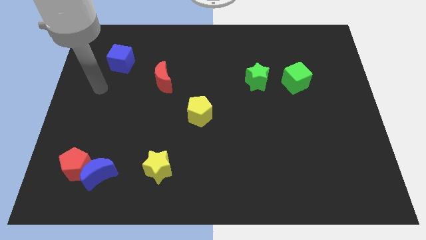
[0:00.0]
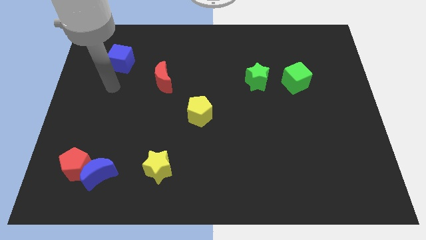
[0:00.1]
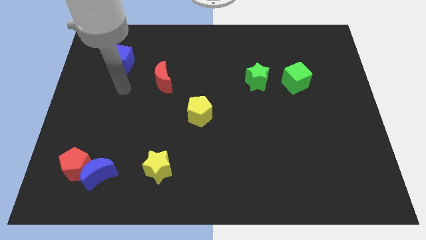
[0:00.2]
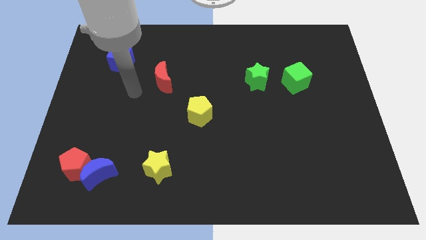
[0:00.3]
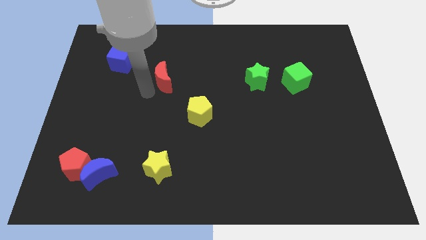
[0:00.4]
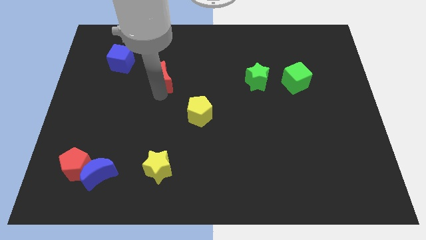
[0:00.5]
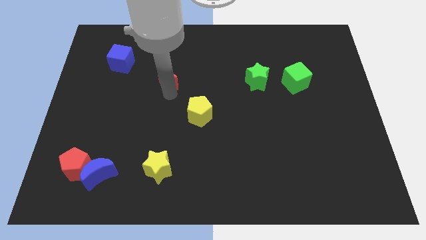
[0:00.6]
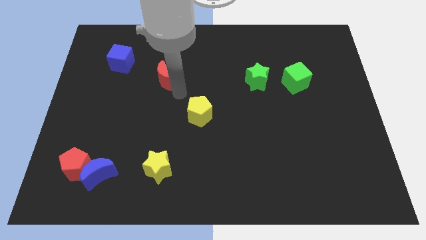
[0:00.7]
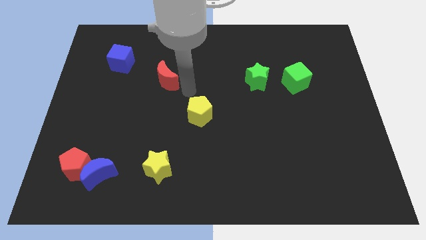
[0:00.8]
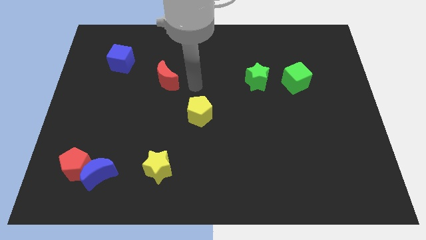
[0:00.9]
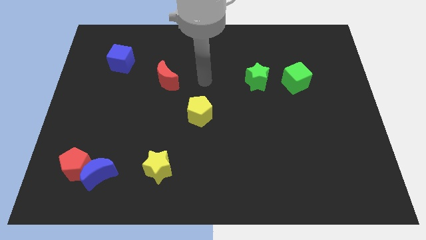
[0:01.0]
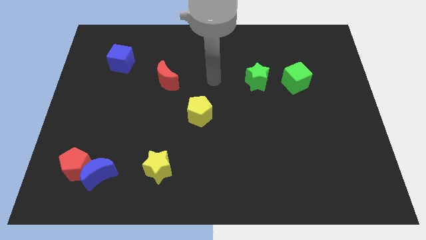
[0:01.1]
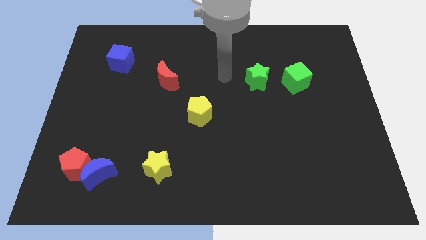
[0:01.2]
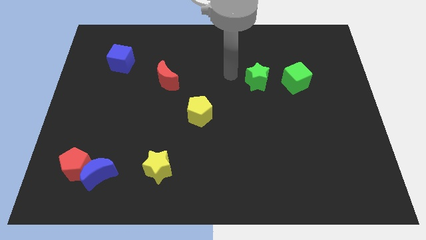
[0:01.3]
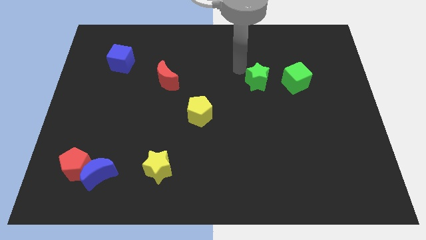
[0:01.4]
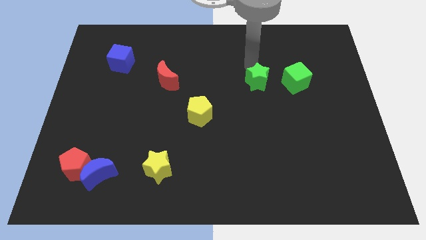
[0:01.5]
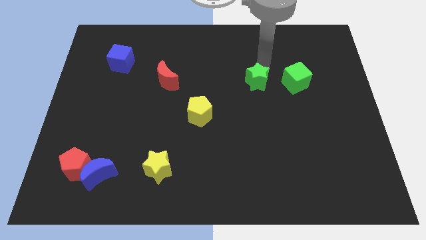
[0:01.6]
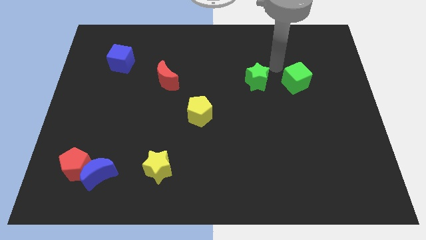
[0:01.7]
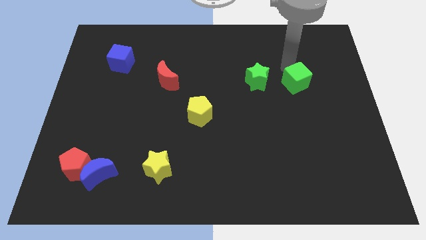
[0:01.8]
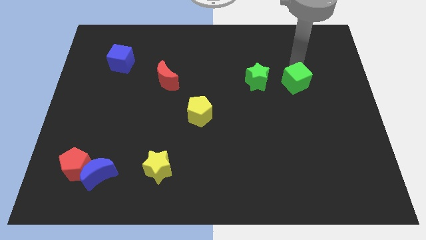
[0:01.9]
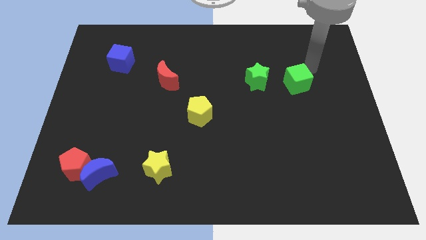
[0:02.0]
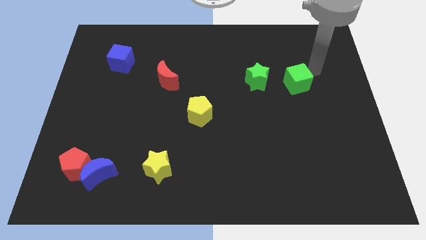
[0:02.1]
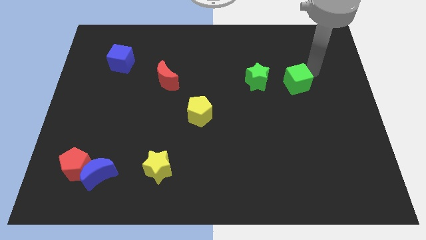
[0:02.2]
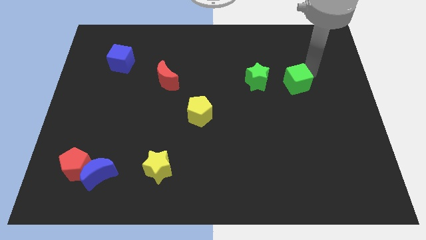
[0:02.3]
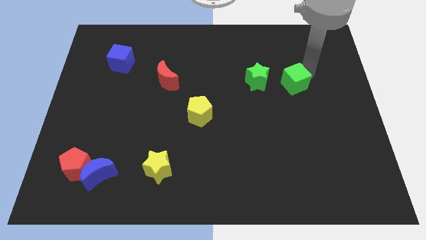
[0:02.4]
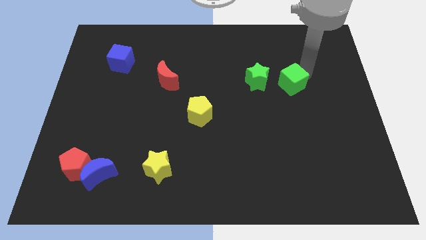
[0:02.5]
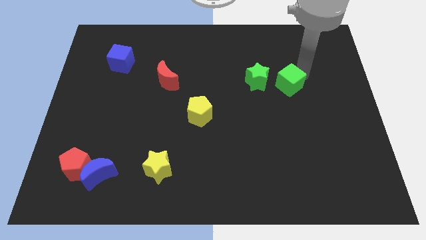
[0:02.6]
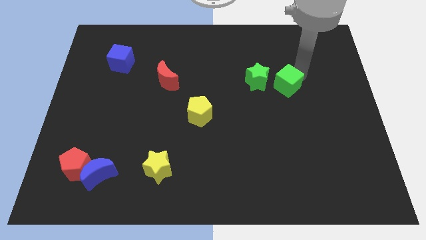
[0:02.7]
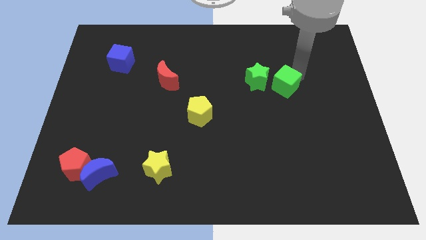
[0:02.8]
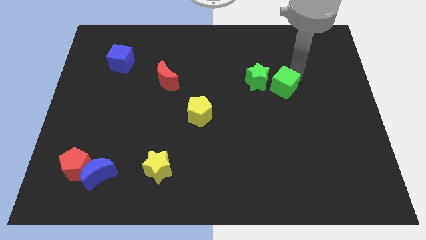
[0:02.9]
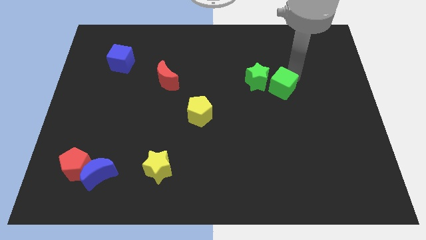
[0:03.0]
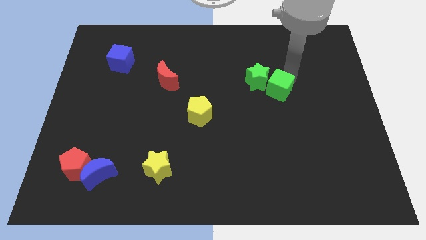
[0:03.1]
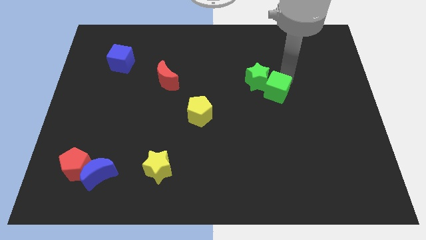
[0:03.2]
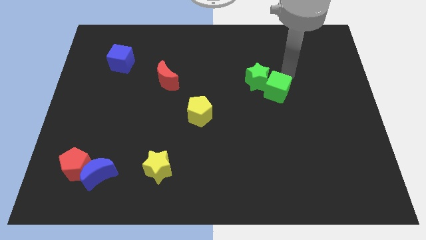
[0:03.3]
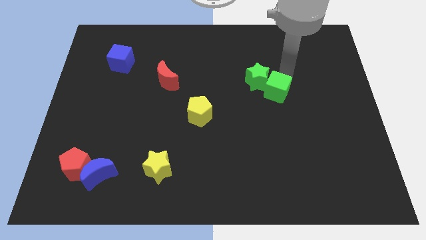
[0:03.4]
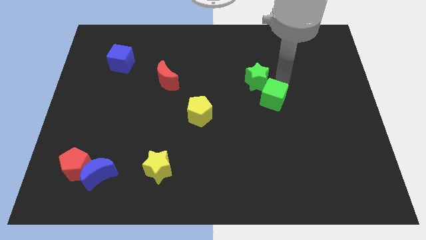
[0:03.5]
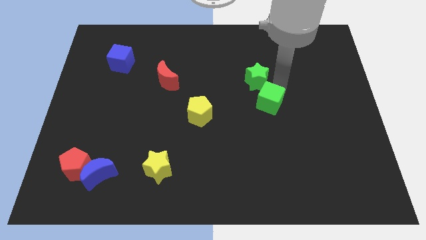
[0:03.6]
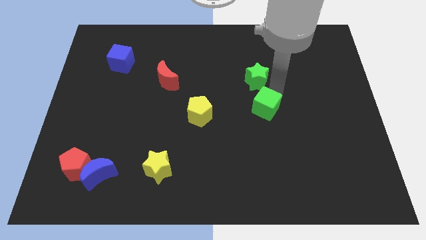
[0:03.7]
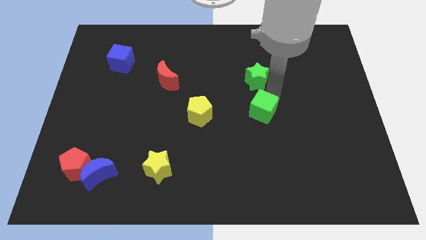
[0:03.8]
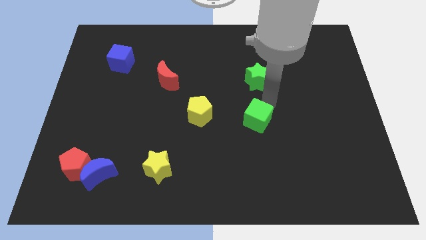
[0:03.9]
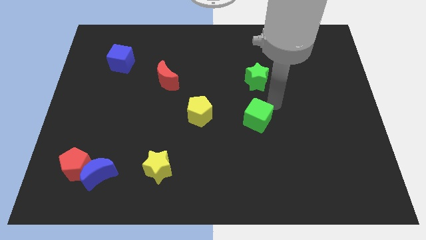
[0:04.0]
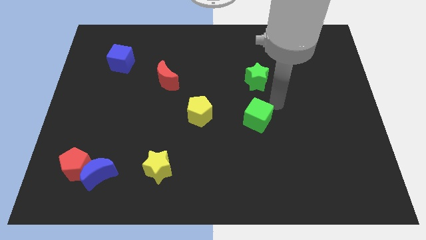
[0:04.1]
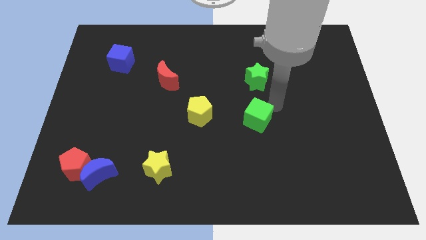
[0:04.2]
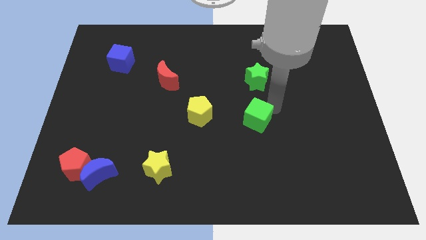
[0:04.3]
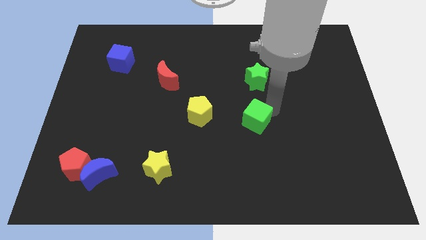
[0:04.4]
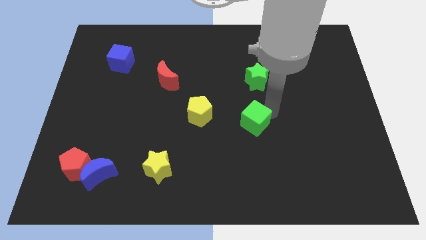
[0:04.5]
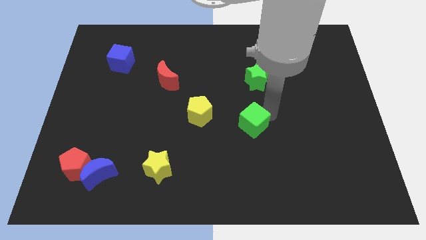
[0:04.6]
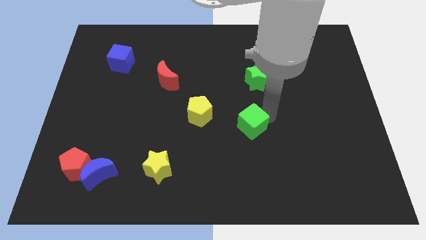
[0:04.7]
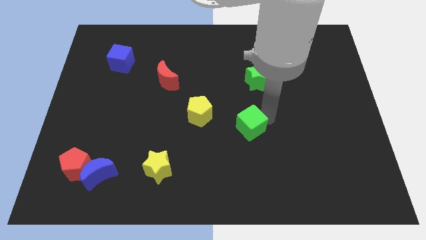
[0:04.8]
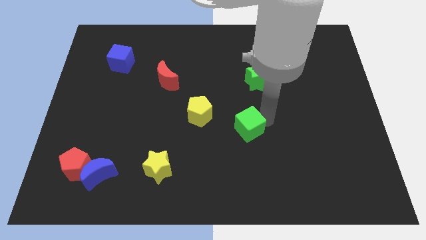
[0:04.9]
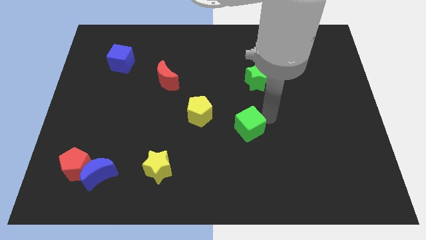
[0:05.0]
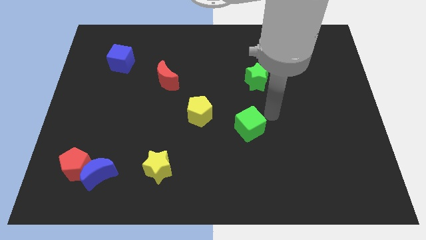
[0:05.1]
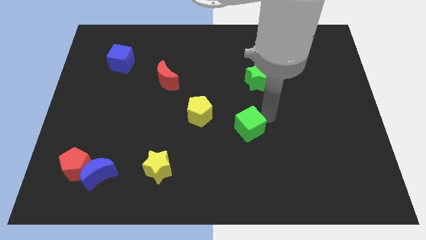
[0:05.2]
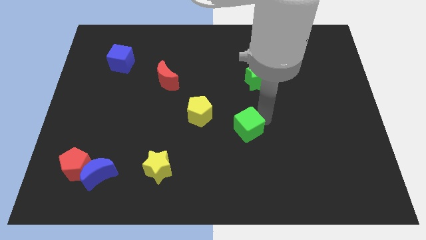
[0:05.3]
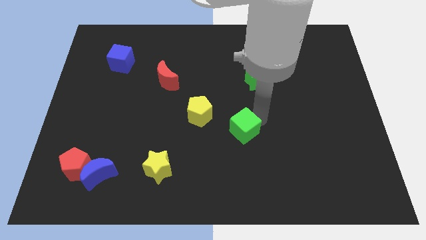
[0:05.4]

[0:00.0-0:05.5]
slide the green cube downwards and left

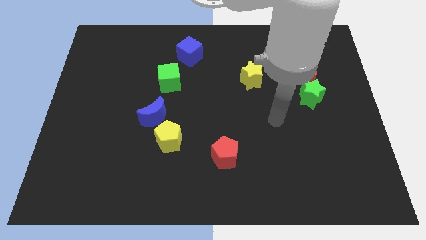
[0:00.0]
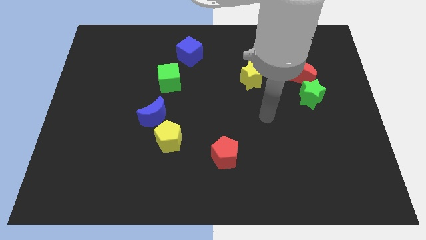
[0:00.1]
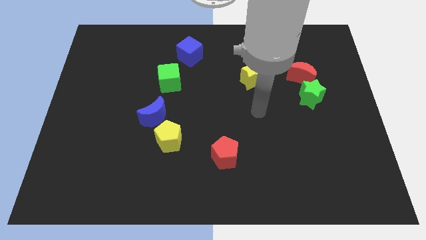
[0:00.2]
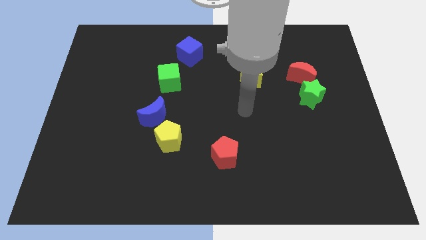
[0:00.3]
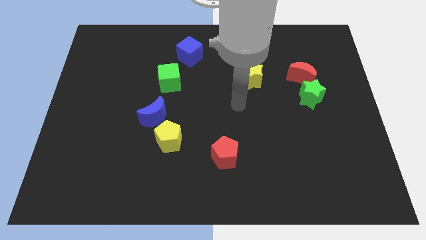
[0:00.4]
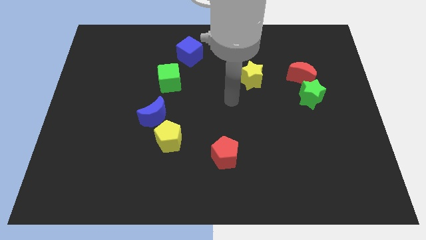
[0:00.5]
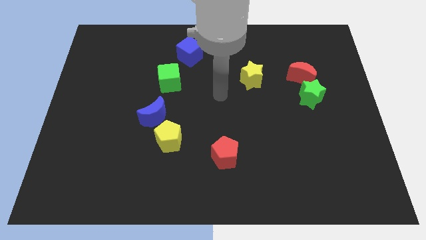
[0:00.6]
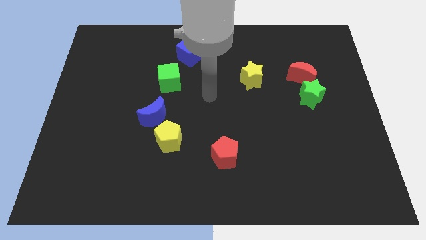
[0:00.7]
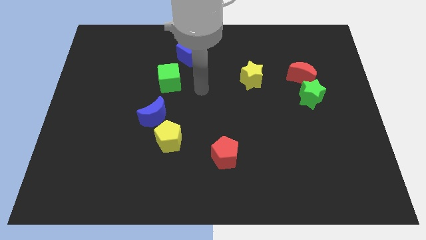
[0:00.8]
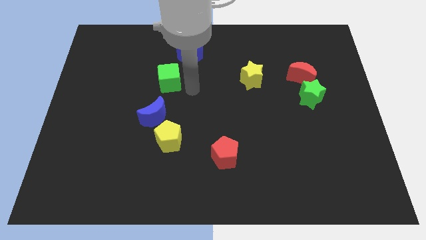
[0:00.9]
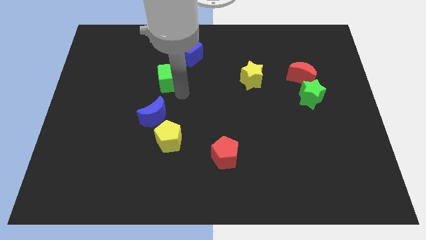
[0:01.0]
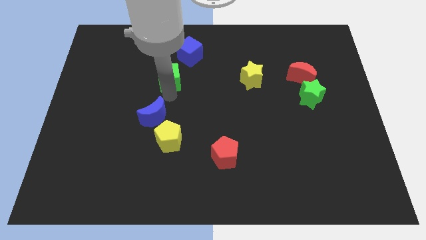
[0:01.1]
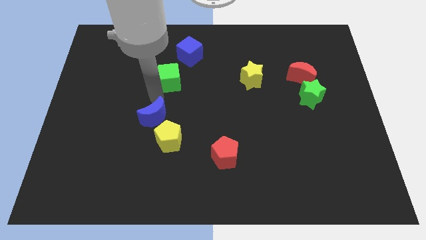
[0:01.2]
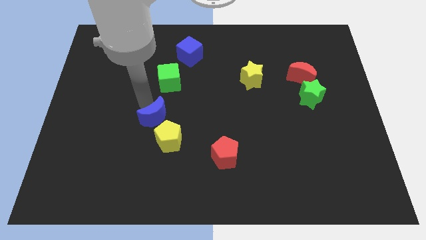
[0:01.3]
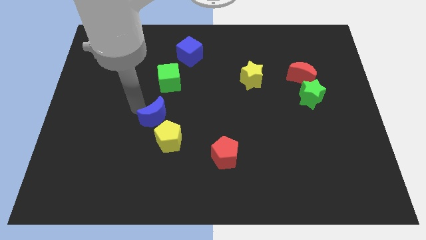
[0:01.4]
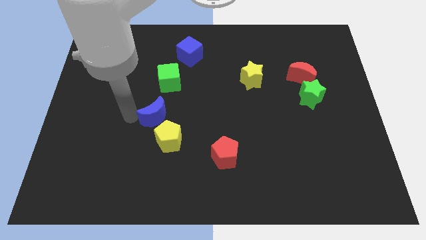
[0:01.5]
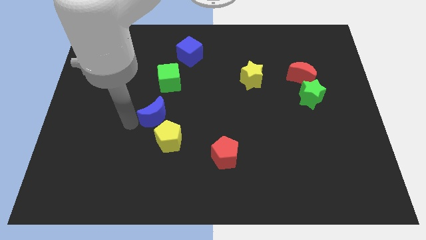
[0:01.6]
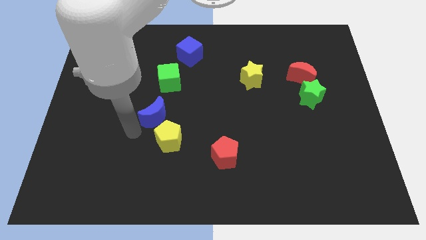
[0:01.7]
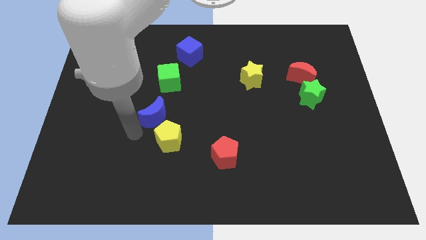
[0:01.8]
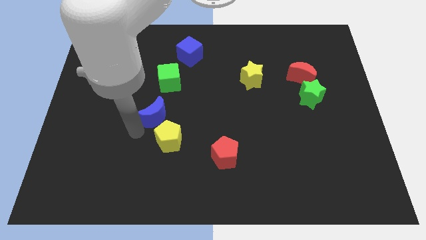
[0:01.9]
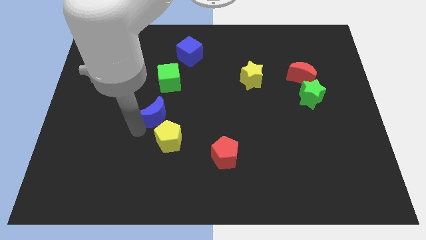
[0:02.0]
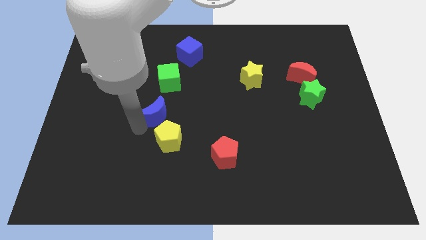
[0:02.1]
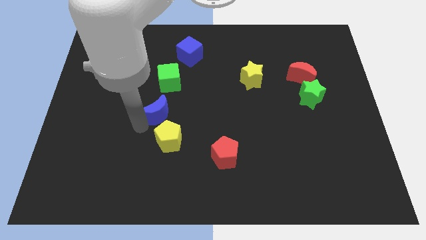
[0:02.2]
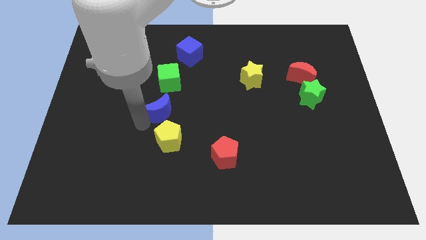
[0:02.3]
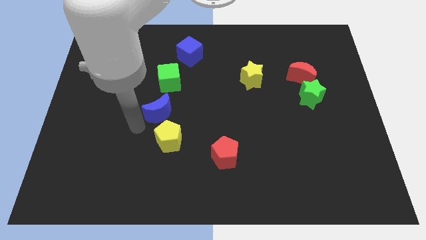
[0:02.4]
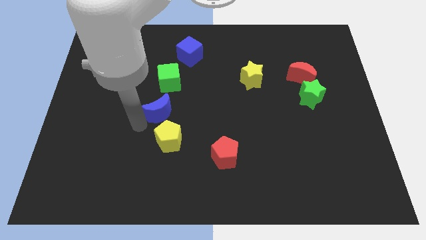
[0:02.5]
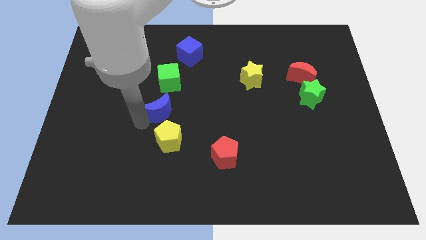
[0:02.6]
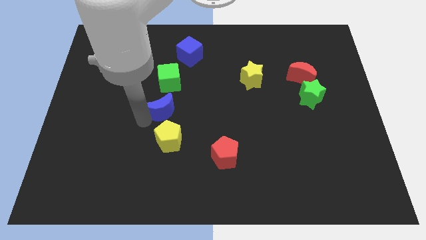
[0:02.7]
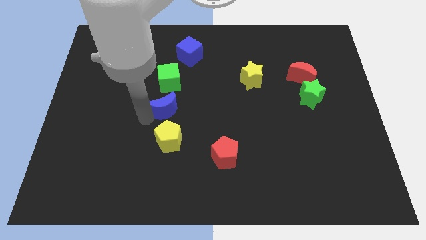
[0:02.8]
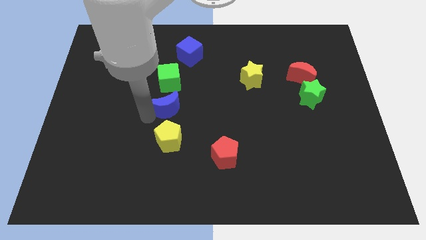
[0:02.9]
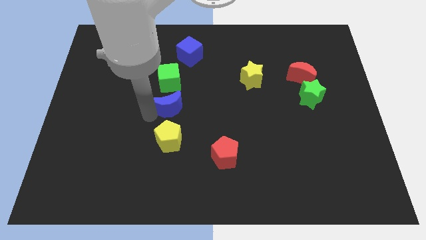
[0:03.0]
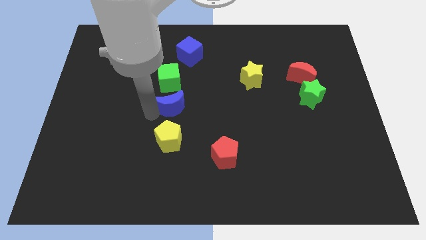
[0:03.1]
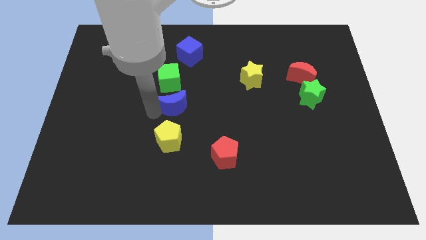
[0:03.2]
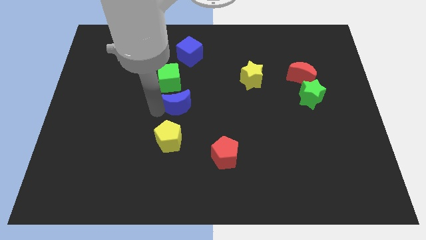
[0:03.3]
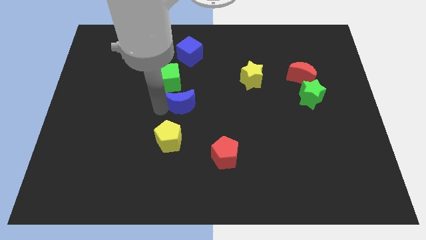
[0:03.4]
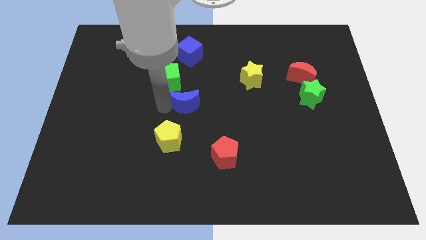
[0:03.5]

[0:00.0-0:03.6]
slightly move the blue moon diagonally upwards and to the right
